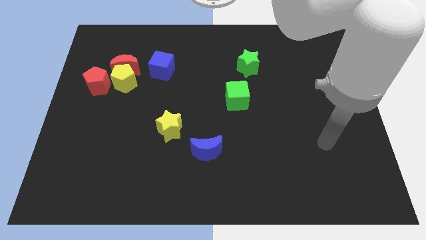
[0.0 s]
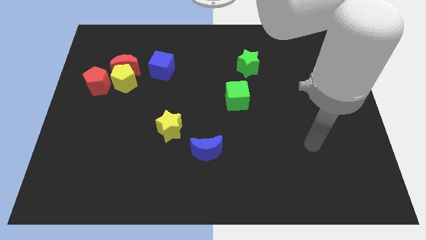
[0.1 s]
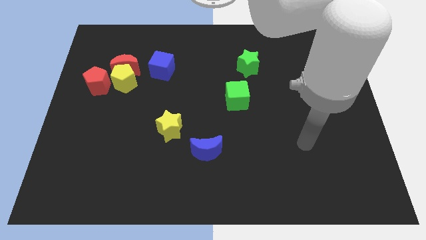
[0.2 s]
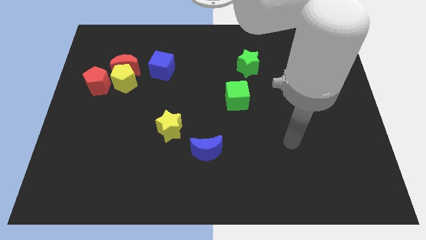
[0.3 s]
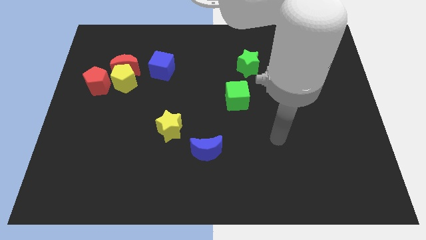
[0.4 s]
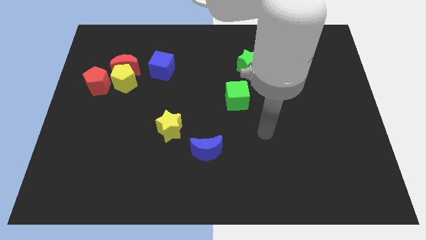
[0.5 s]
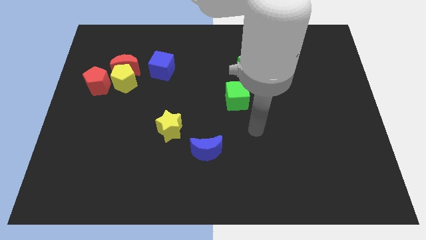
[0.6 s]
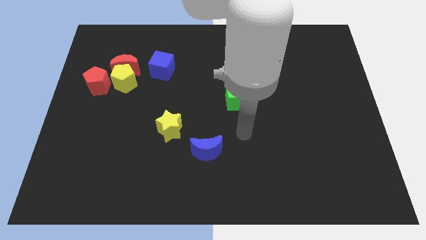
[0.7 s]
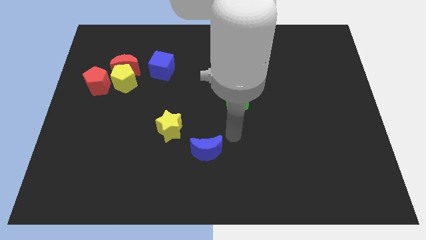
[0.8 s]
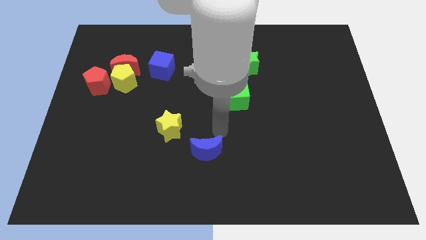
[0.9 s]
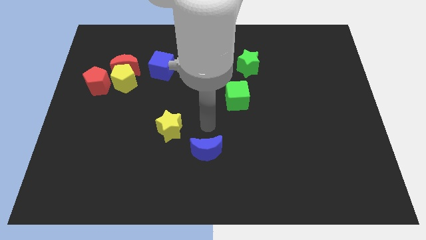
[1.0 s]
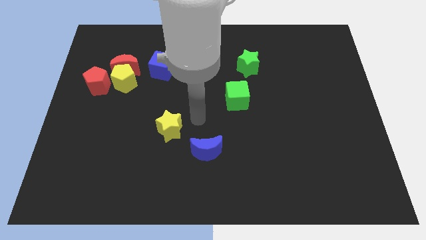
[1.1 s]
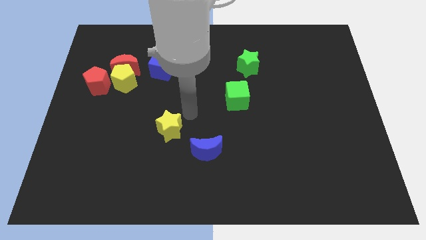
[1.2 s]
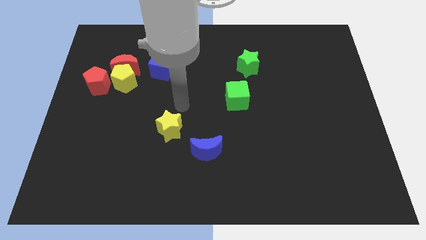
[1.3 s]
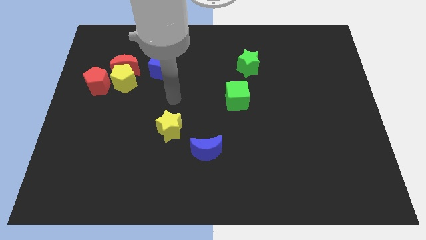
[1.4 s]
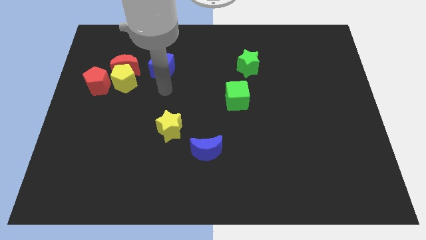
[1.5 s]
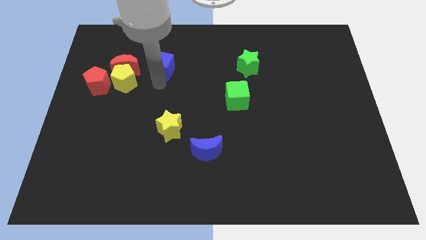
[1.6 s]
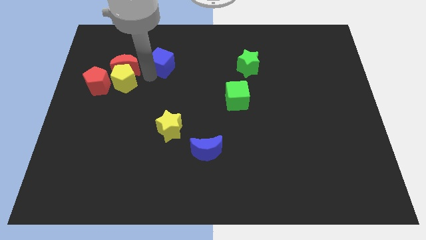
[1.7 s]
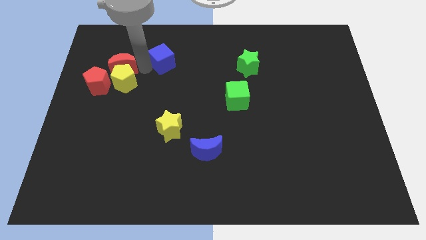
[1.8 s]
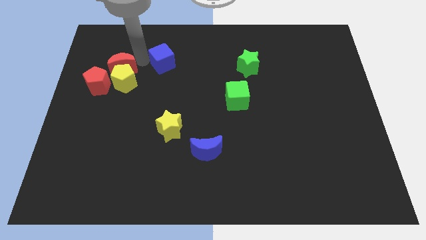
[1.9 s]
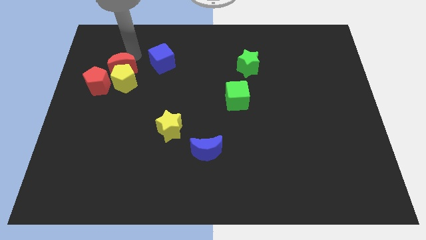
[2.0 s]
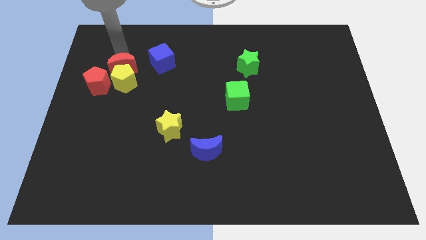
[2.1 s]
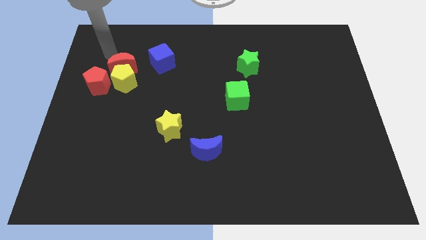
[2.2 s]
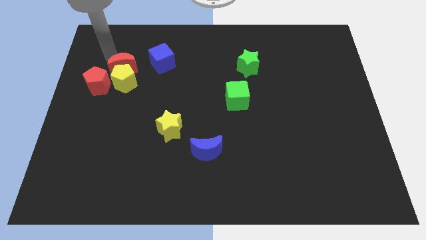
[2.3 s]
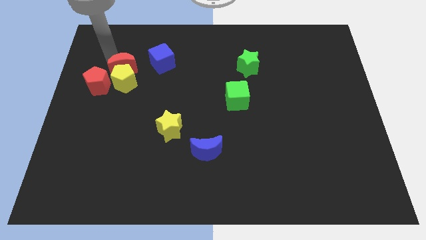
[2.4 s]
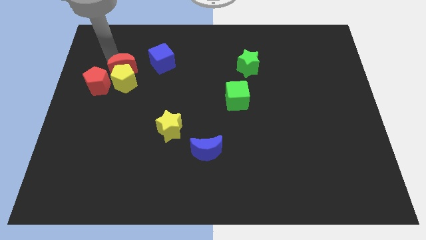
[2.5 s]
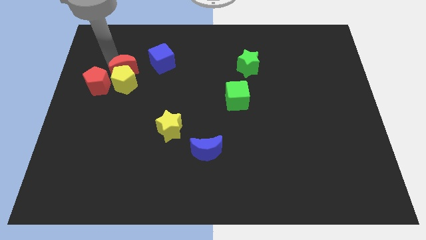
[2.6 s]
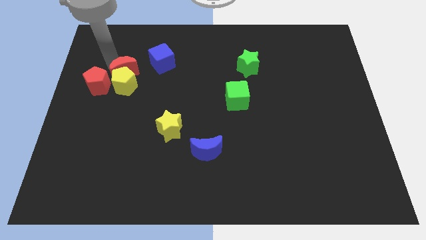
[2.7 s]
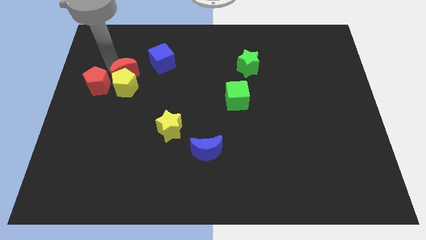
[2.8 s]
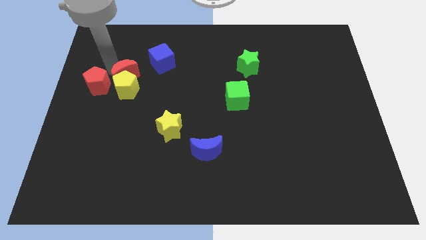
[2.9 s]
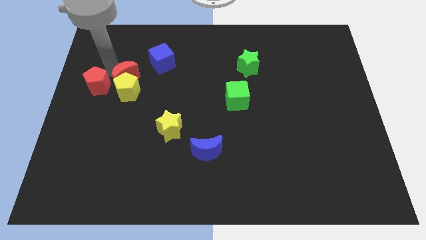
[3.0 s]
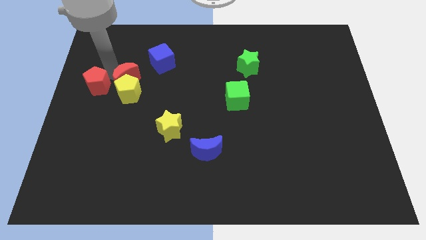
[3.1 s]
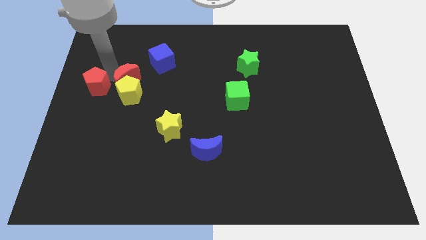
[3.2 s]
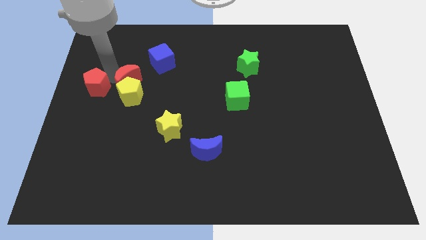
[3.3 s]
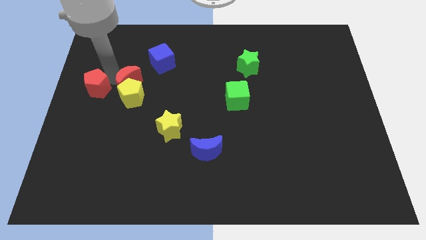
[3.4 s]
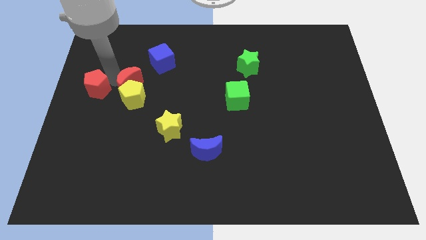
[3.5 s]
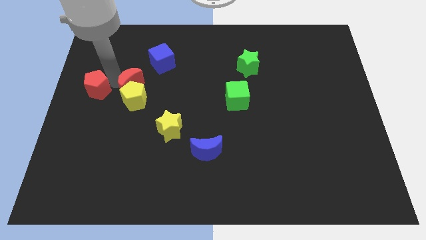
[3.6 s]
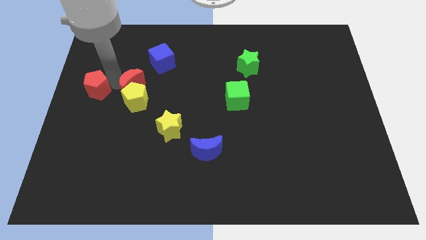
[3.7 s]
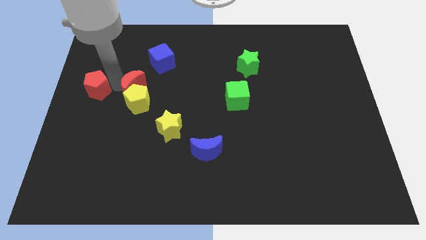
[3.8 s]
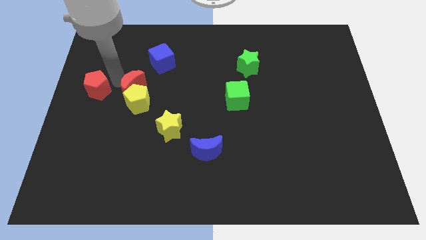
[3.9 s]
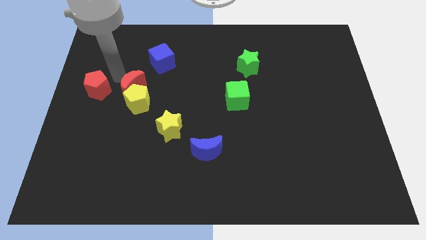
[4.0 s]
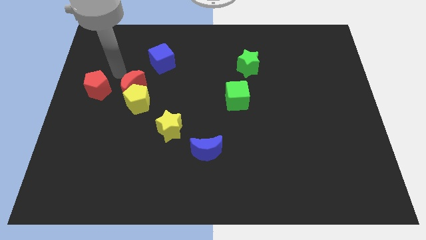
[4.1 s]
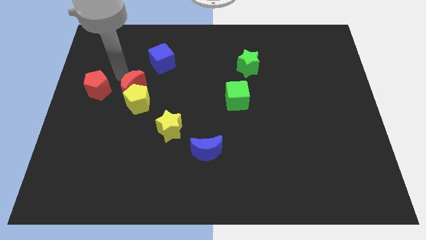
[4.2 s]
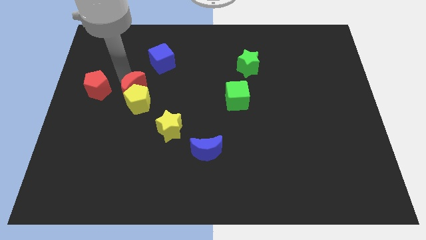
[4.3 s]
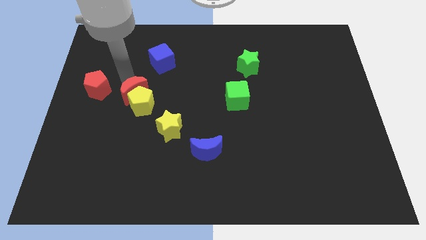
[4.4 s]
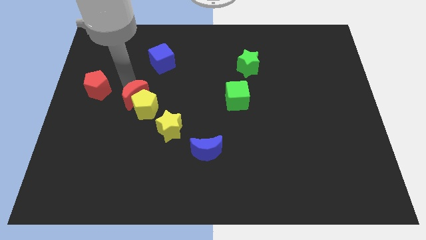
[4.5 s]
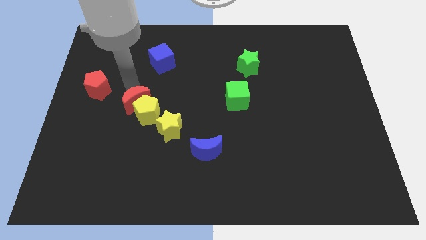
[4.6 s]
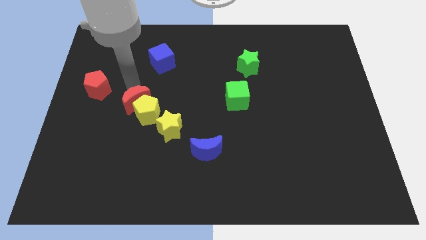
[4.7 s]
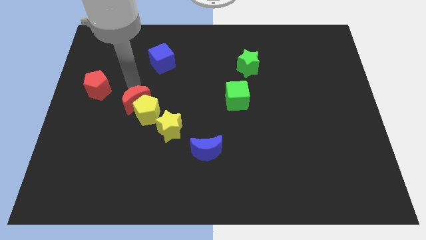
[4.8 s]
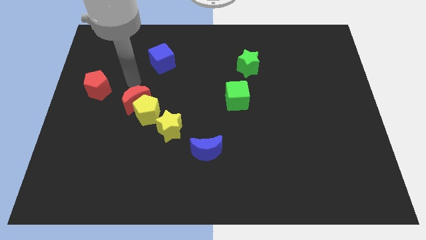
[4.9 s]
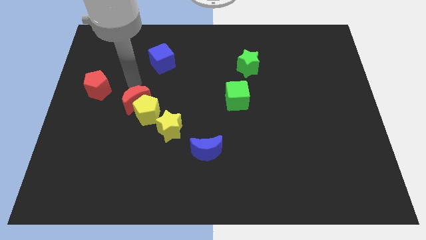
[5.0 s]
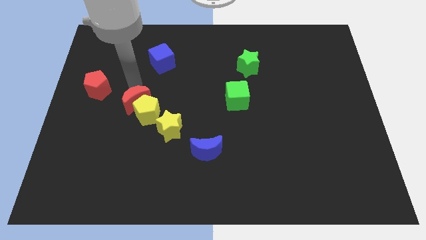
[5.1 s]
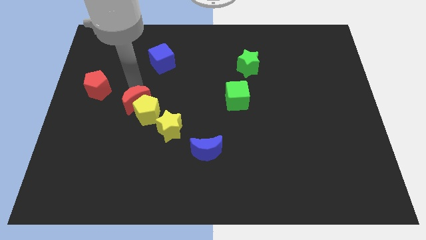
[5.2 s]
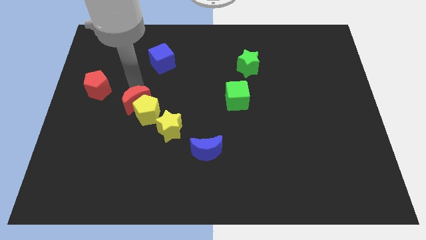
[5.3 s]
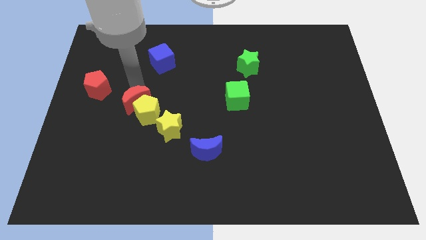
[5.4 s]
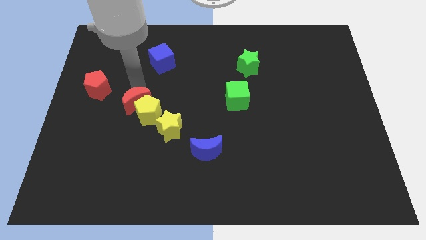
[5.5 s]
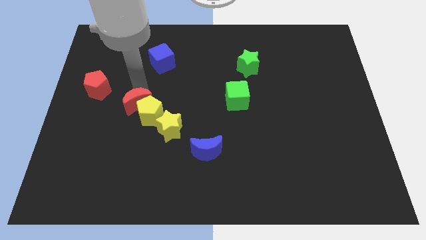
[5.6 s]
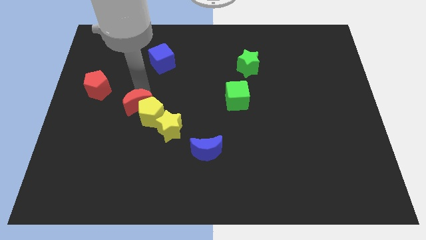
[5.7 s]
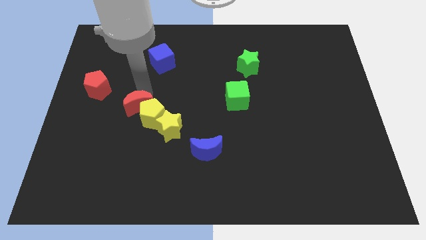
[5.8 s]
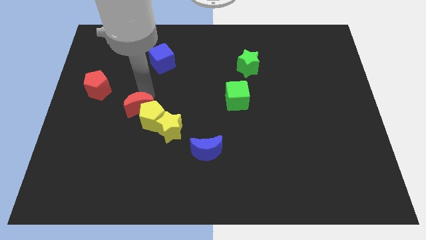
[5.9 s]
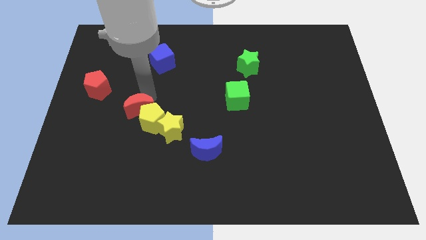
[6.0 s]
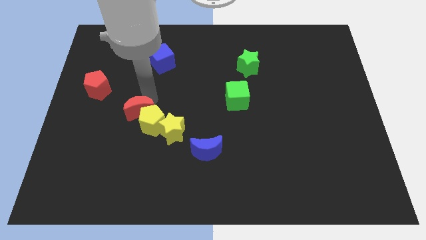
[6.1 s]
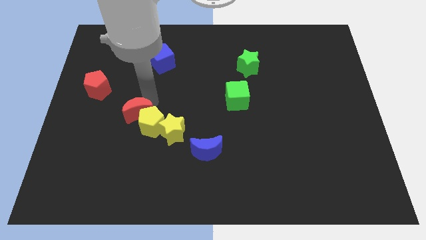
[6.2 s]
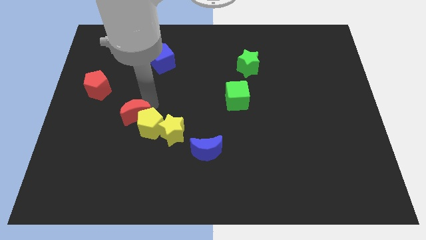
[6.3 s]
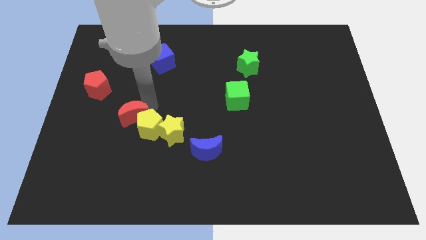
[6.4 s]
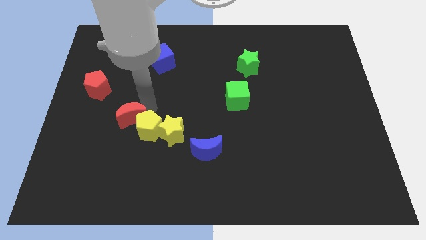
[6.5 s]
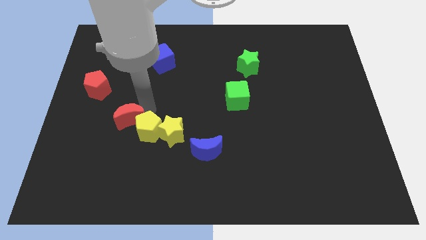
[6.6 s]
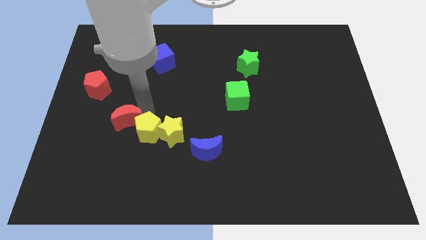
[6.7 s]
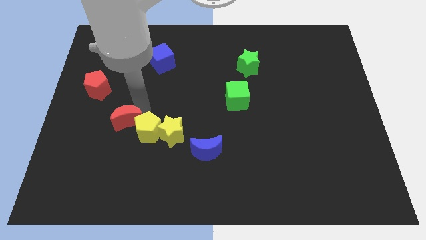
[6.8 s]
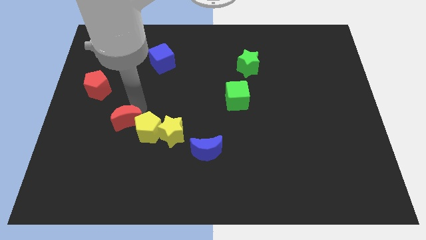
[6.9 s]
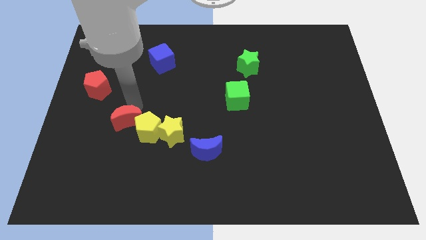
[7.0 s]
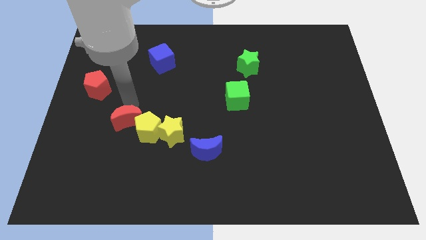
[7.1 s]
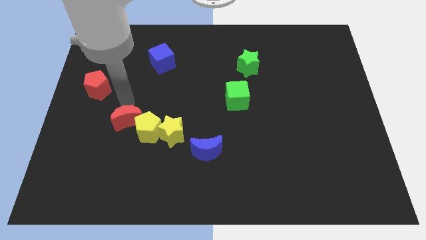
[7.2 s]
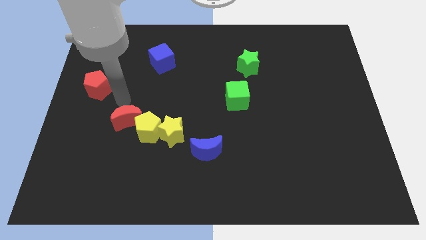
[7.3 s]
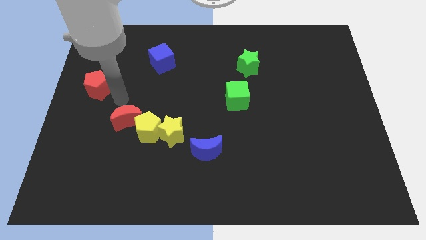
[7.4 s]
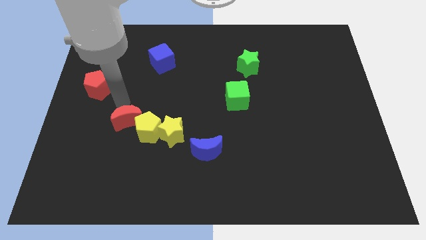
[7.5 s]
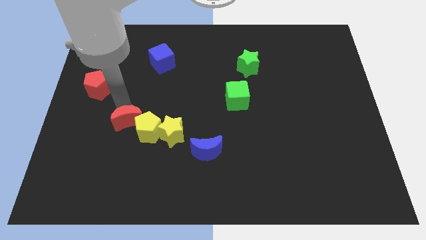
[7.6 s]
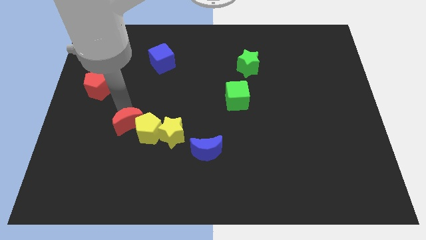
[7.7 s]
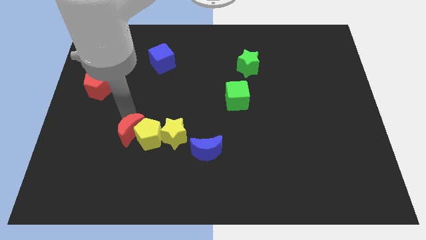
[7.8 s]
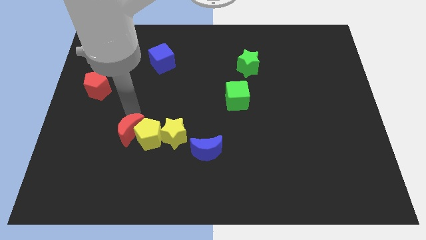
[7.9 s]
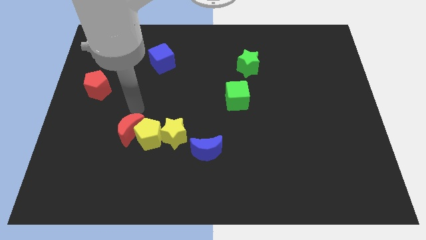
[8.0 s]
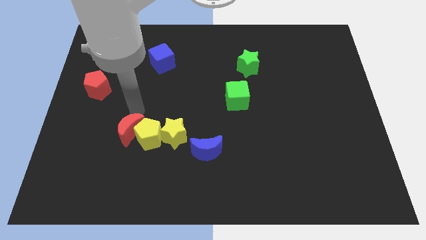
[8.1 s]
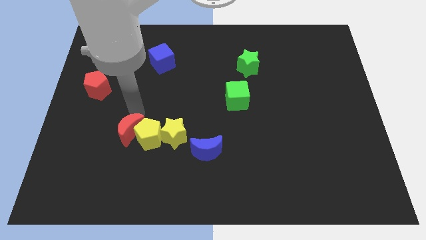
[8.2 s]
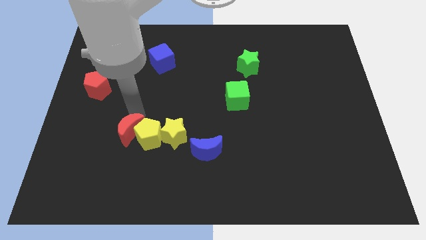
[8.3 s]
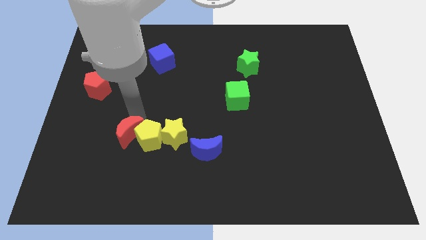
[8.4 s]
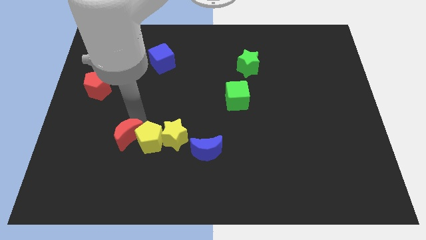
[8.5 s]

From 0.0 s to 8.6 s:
push the red moon down
